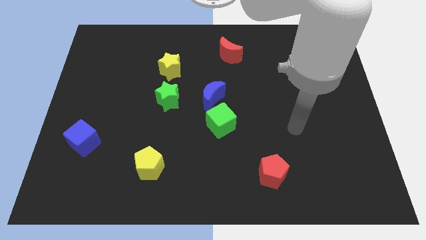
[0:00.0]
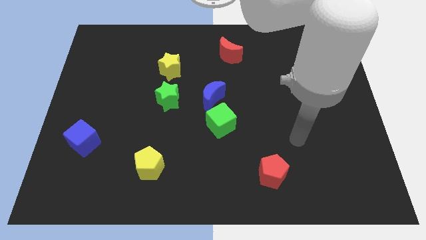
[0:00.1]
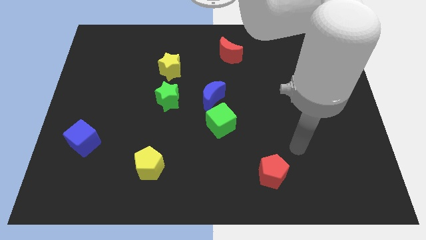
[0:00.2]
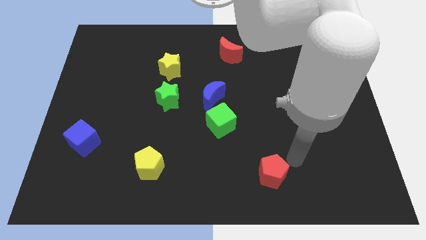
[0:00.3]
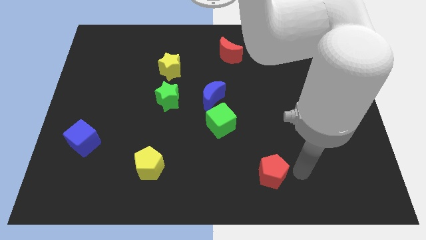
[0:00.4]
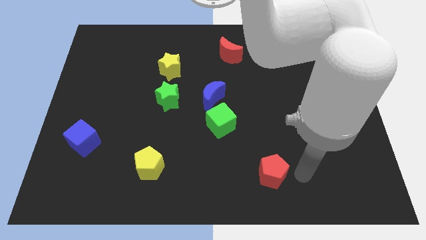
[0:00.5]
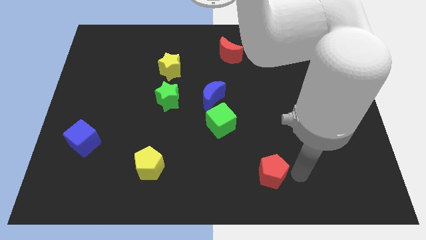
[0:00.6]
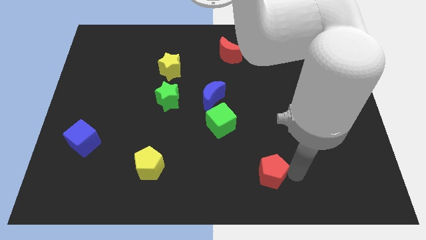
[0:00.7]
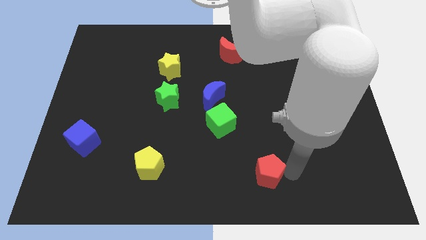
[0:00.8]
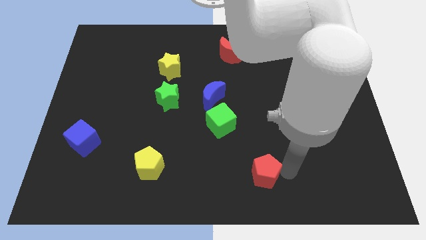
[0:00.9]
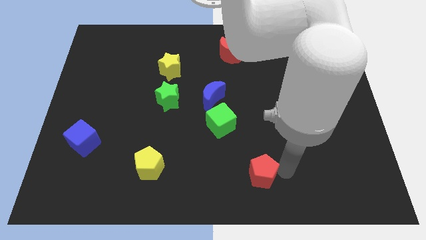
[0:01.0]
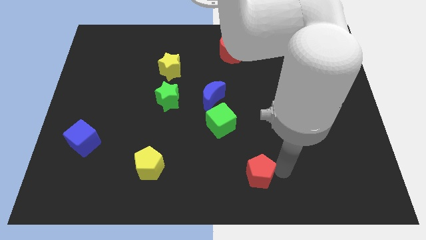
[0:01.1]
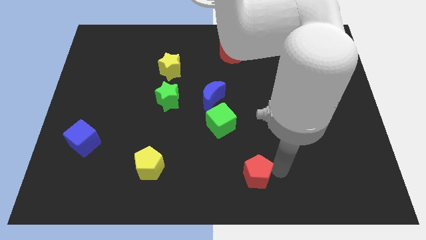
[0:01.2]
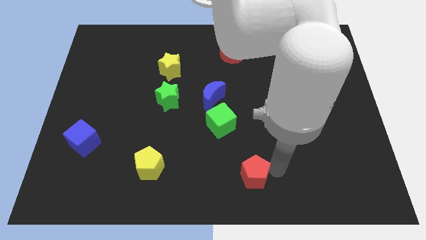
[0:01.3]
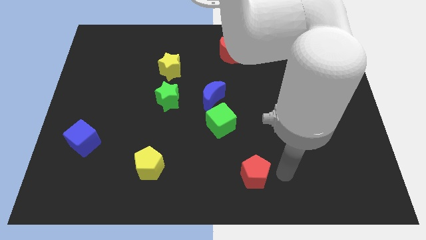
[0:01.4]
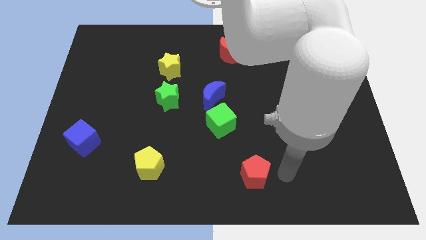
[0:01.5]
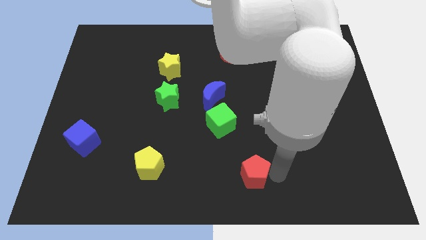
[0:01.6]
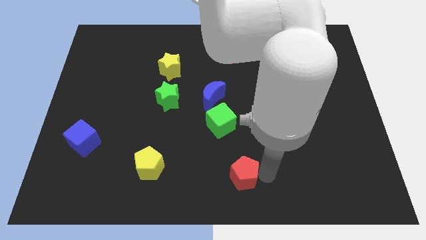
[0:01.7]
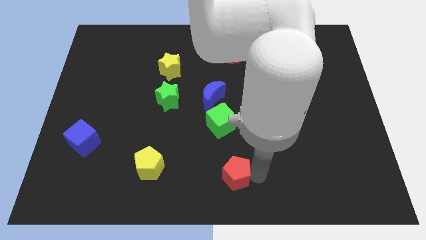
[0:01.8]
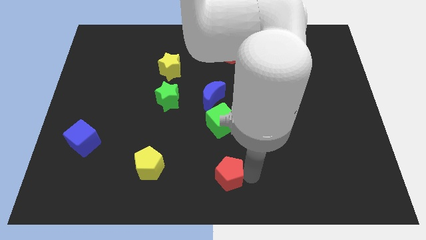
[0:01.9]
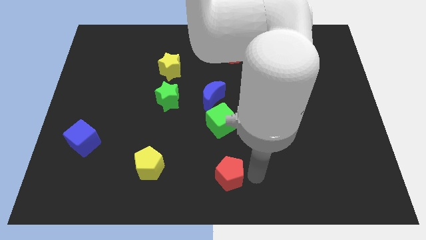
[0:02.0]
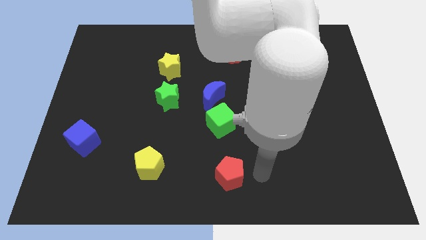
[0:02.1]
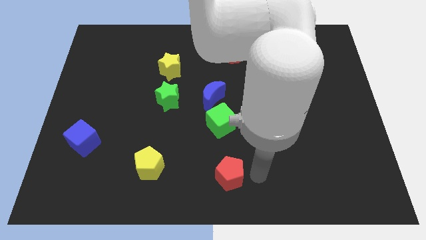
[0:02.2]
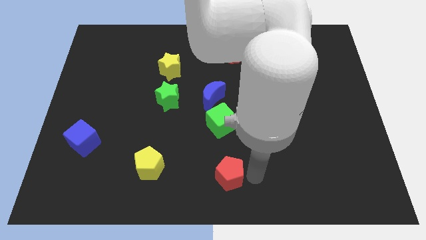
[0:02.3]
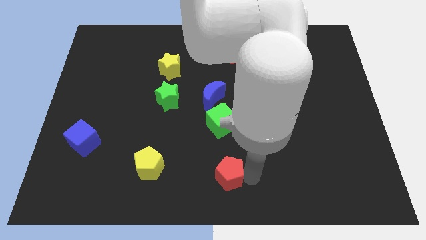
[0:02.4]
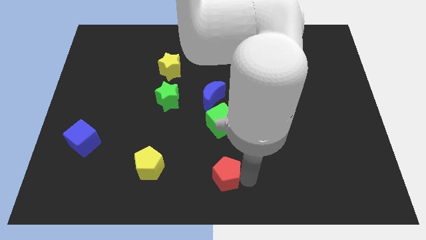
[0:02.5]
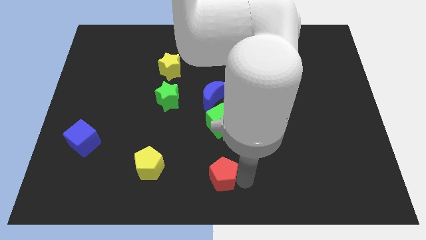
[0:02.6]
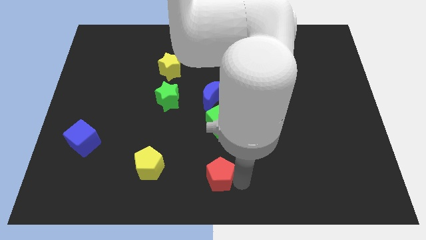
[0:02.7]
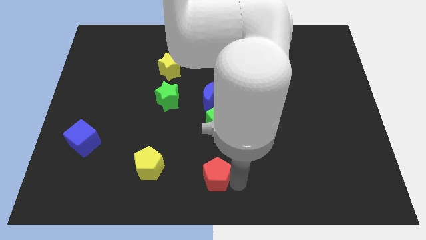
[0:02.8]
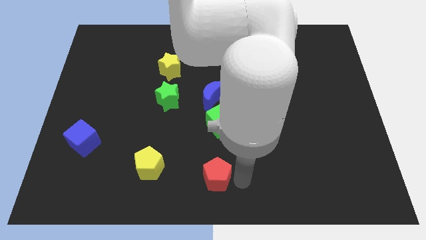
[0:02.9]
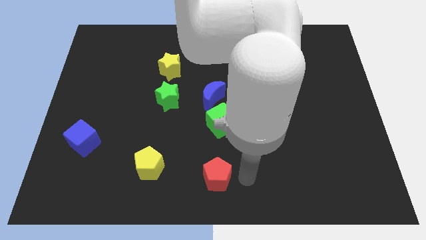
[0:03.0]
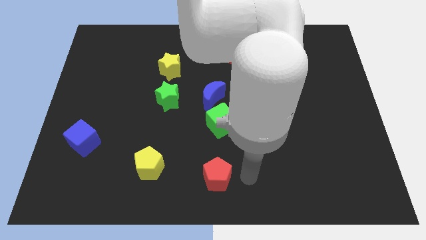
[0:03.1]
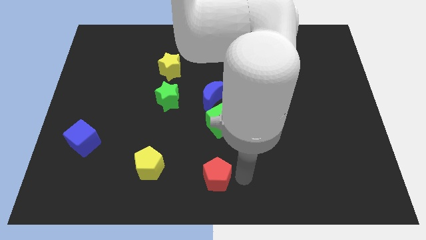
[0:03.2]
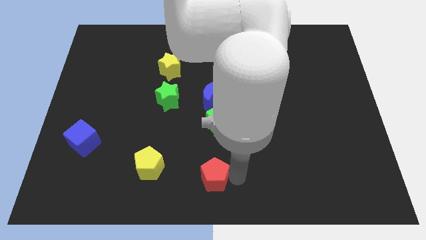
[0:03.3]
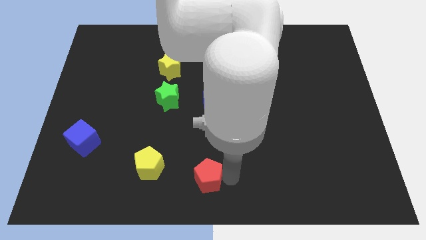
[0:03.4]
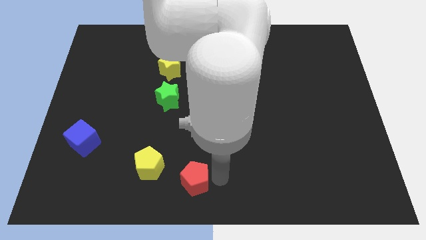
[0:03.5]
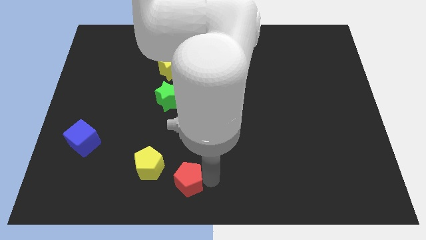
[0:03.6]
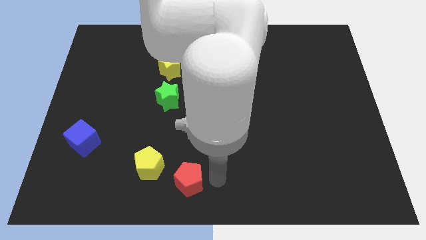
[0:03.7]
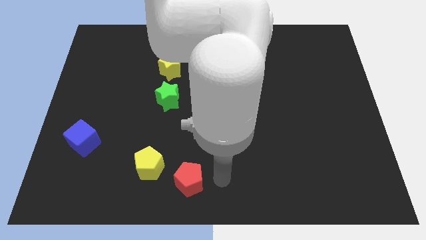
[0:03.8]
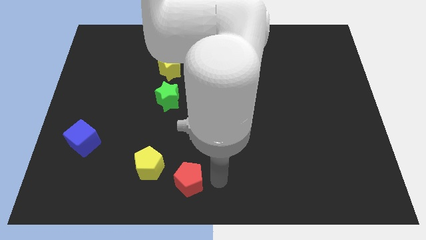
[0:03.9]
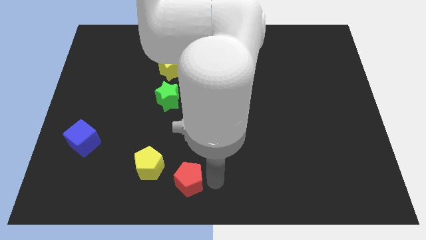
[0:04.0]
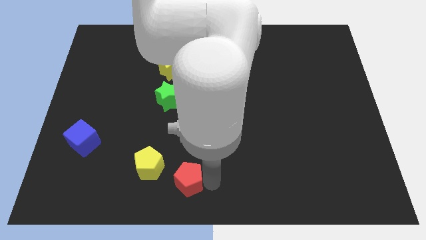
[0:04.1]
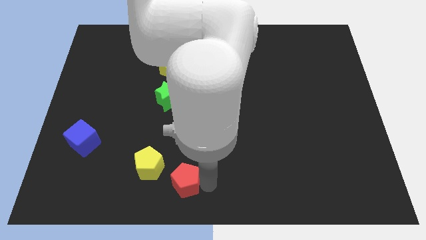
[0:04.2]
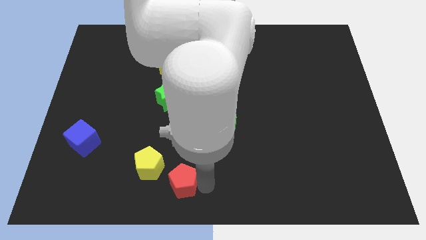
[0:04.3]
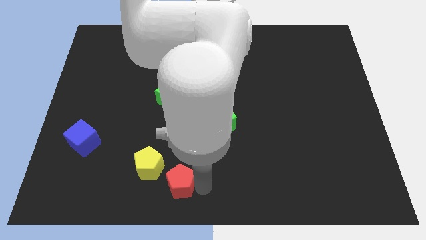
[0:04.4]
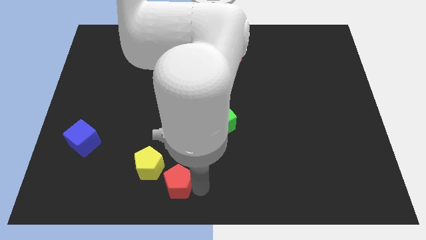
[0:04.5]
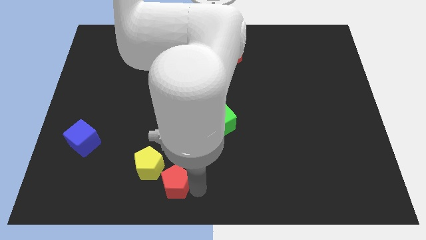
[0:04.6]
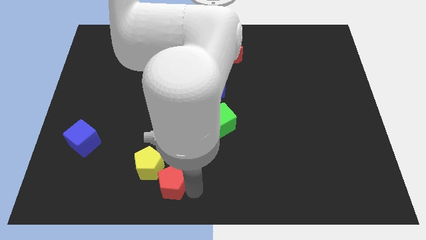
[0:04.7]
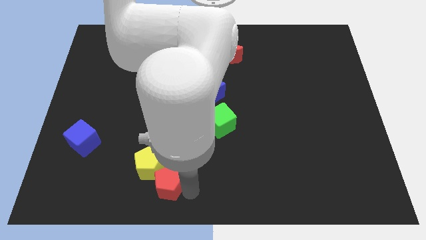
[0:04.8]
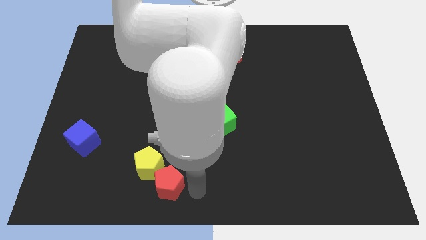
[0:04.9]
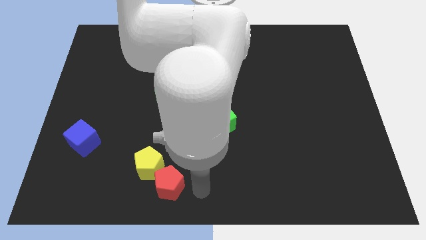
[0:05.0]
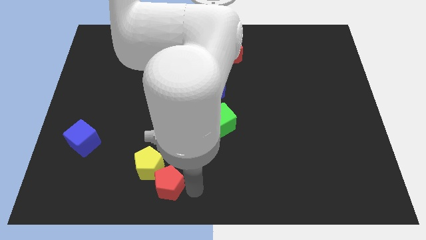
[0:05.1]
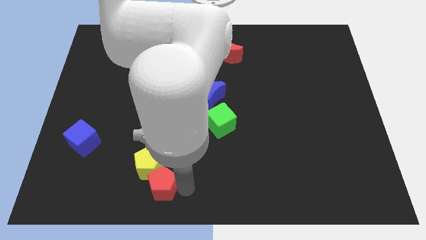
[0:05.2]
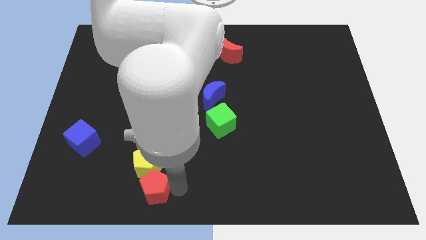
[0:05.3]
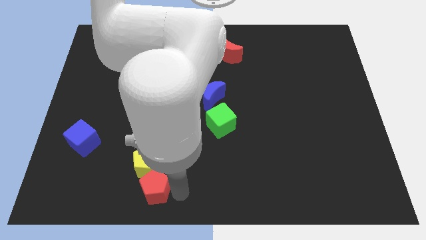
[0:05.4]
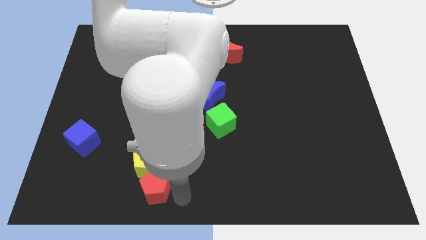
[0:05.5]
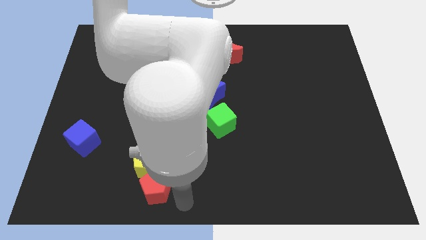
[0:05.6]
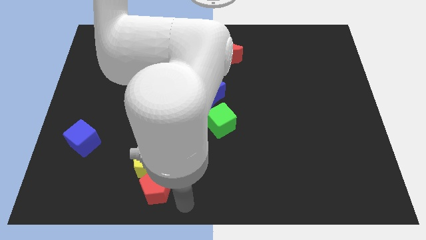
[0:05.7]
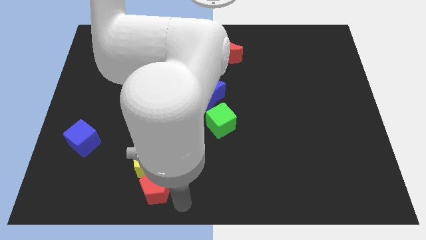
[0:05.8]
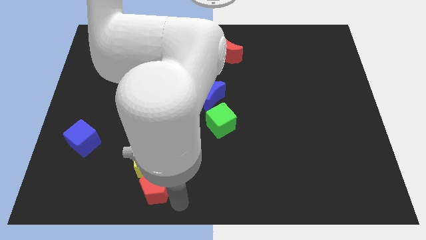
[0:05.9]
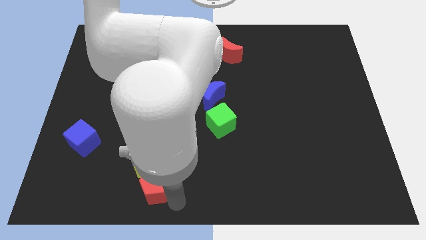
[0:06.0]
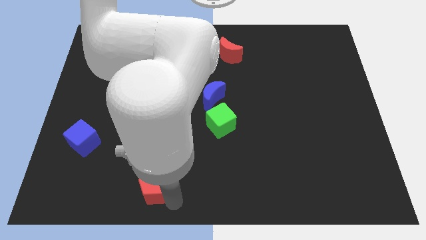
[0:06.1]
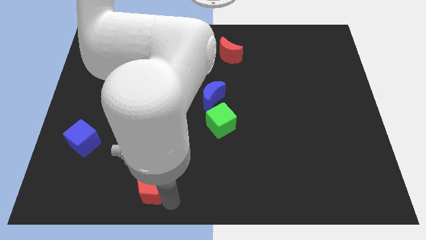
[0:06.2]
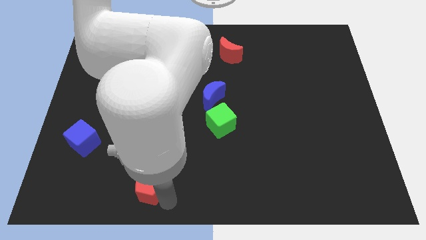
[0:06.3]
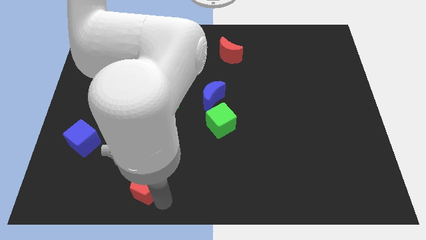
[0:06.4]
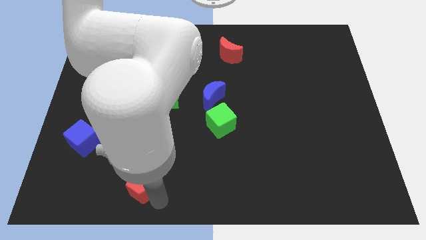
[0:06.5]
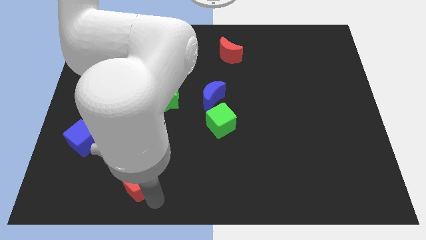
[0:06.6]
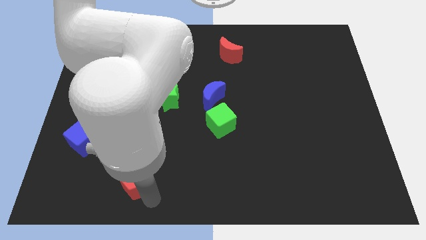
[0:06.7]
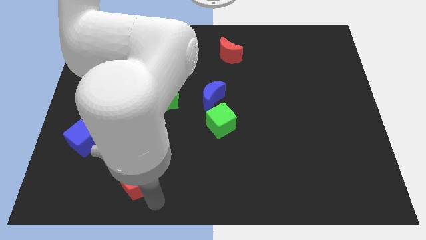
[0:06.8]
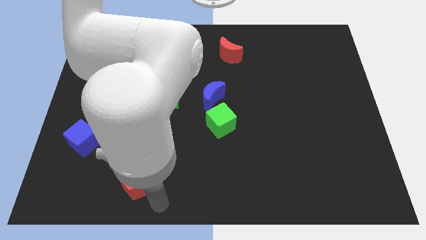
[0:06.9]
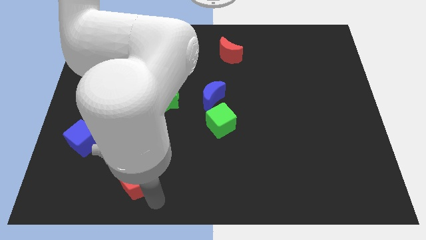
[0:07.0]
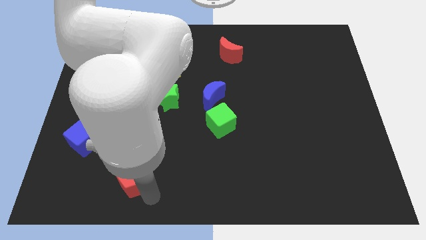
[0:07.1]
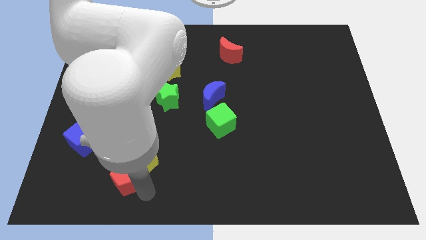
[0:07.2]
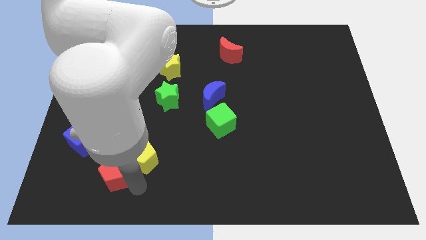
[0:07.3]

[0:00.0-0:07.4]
slide the red pentagon to the left of the yellow pentagon
